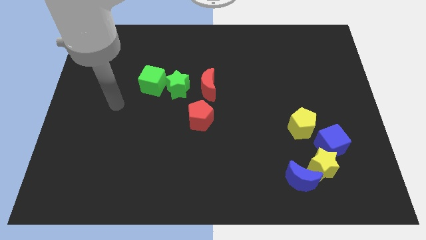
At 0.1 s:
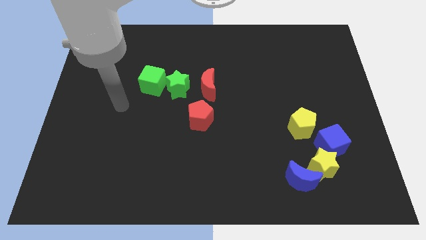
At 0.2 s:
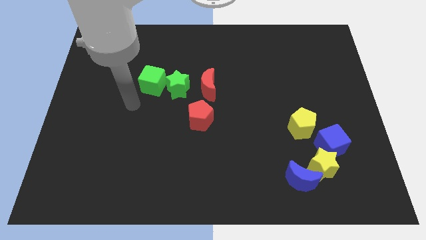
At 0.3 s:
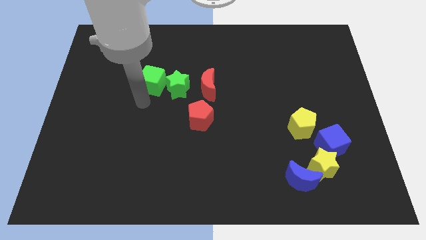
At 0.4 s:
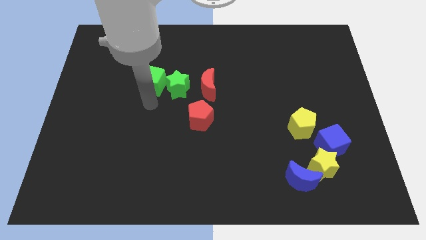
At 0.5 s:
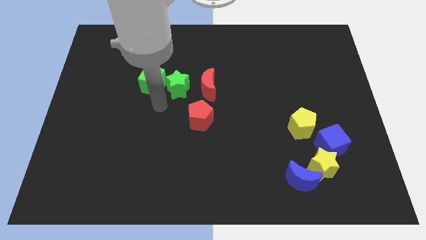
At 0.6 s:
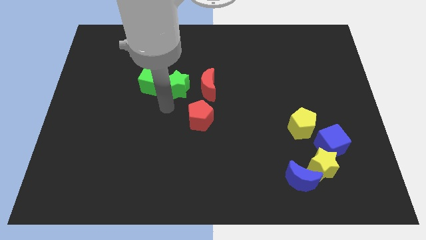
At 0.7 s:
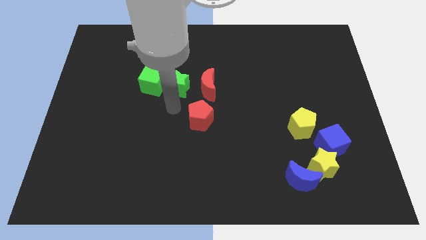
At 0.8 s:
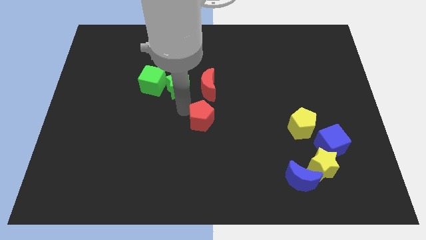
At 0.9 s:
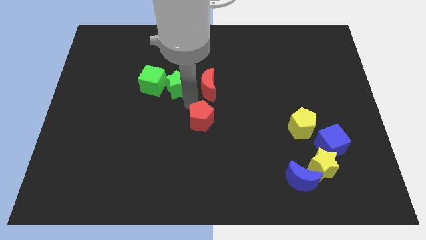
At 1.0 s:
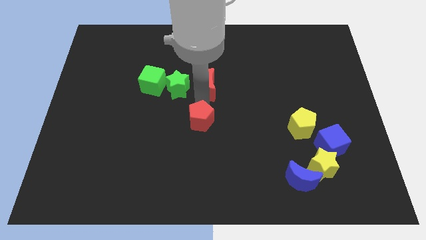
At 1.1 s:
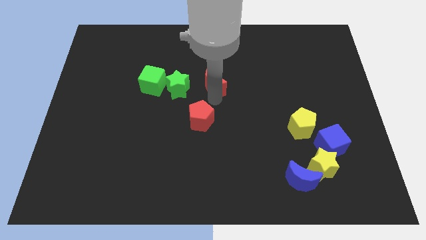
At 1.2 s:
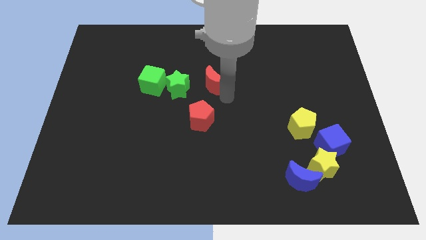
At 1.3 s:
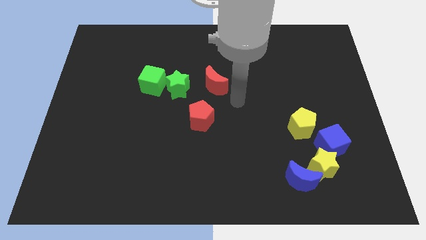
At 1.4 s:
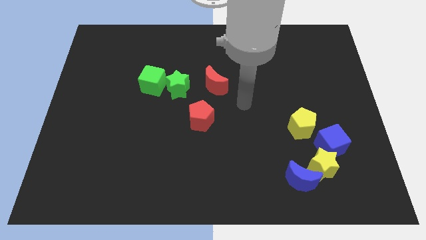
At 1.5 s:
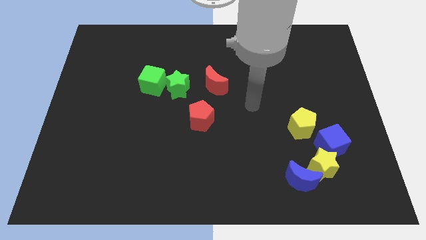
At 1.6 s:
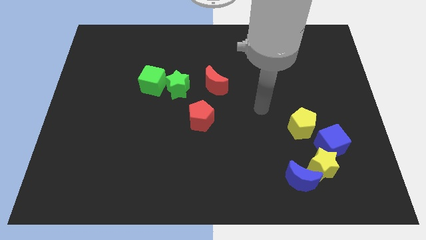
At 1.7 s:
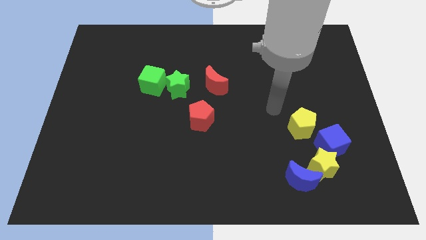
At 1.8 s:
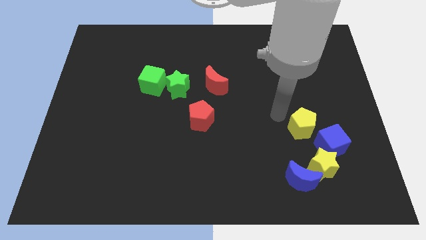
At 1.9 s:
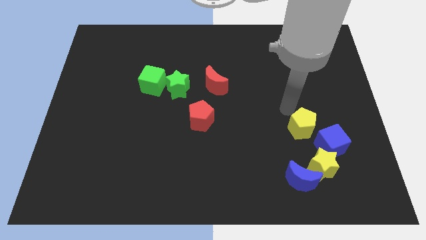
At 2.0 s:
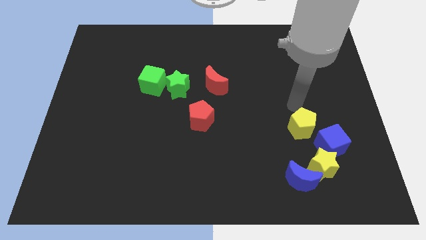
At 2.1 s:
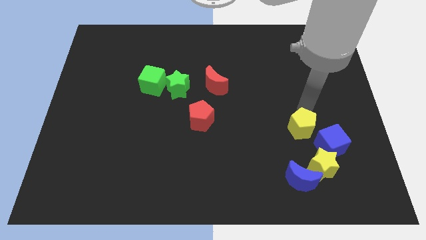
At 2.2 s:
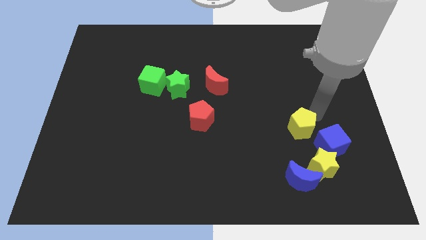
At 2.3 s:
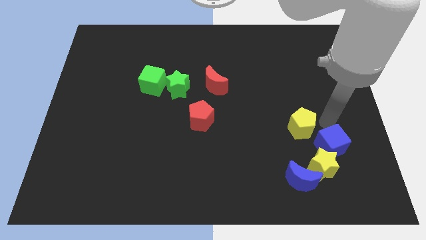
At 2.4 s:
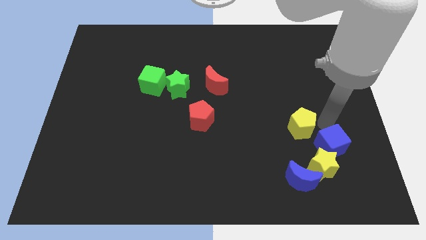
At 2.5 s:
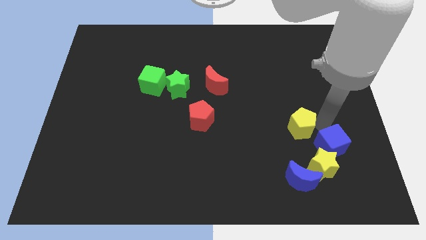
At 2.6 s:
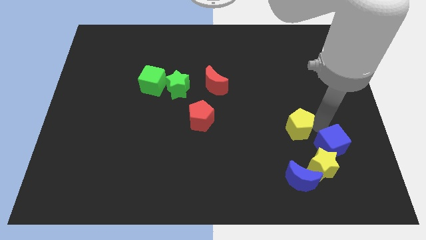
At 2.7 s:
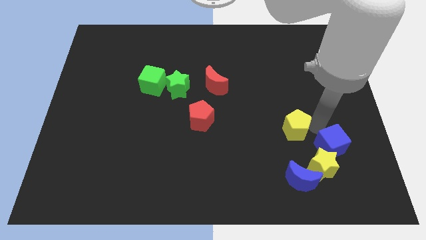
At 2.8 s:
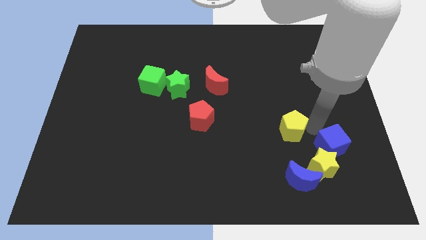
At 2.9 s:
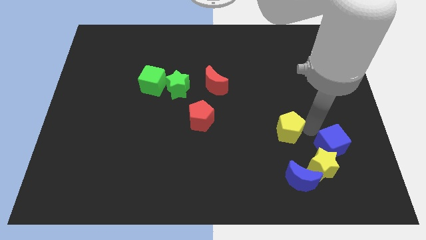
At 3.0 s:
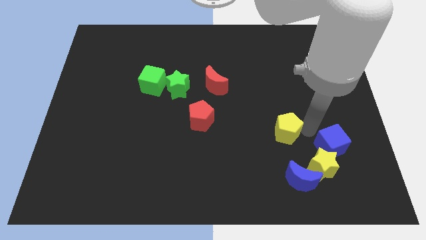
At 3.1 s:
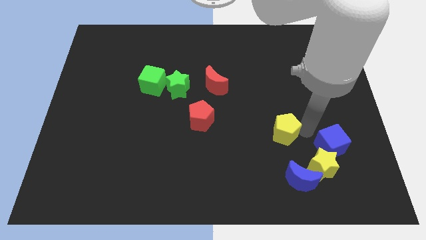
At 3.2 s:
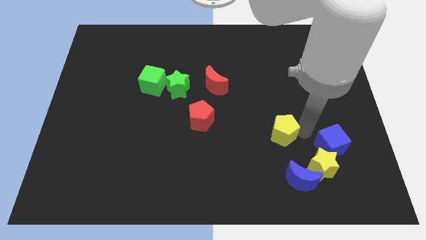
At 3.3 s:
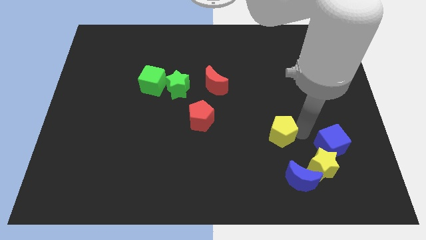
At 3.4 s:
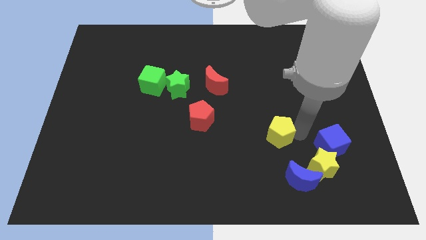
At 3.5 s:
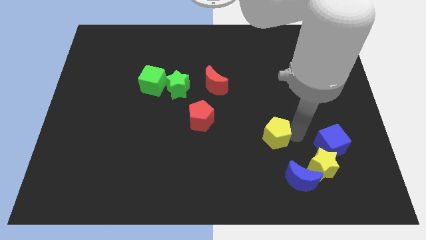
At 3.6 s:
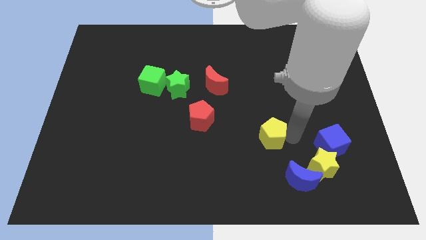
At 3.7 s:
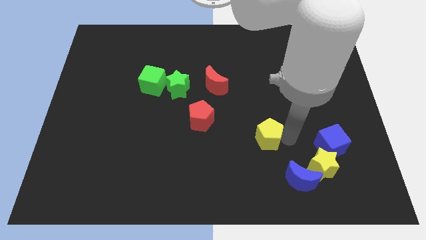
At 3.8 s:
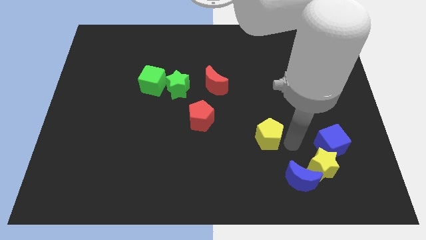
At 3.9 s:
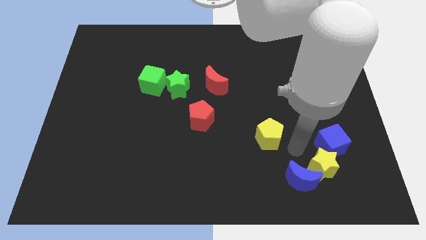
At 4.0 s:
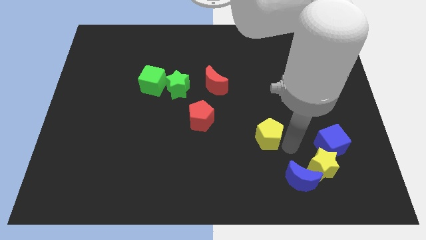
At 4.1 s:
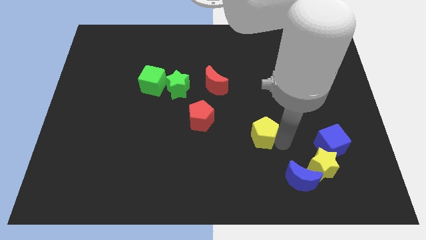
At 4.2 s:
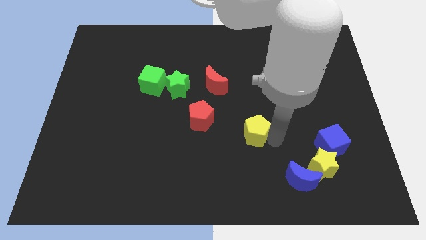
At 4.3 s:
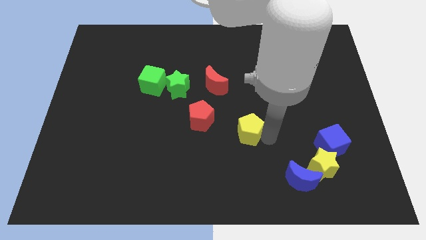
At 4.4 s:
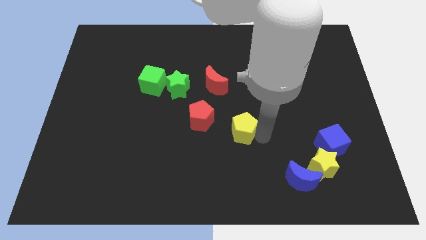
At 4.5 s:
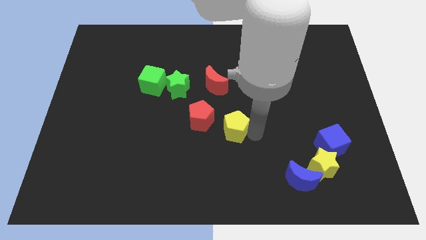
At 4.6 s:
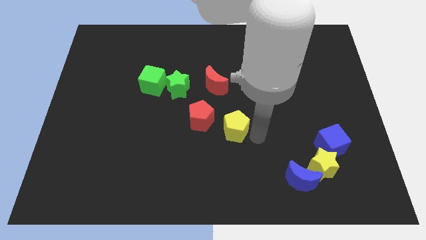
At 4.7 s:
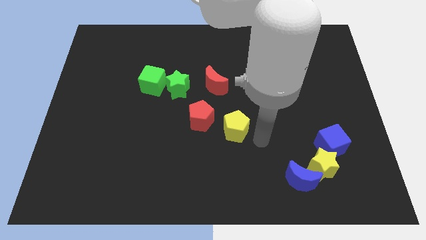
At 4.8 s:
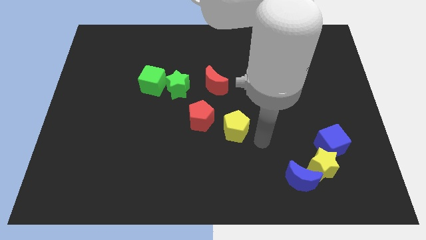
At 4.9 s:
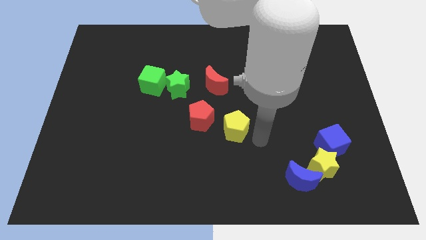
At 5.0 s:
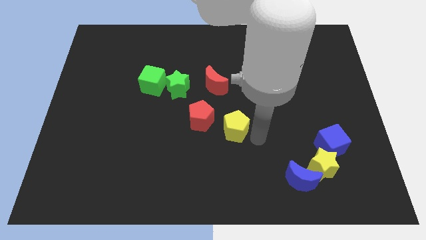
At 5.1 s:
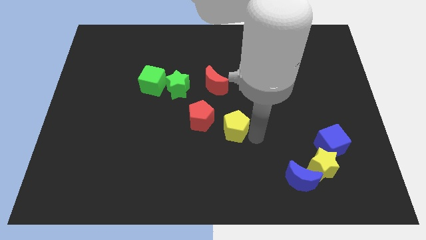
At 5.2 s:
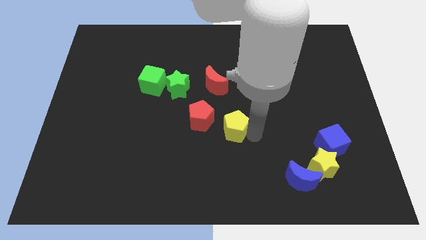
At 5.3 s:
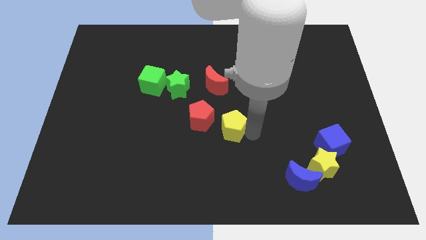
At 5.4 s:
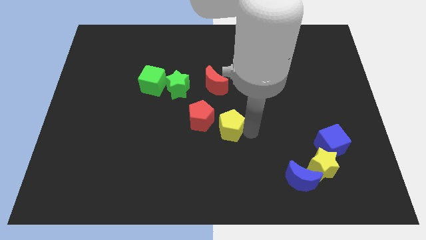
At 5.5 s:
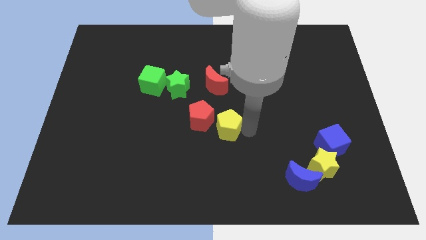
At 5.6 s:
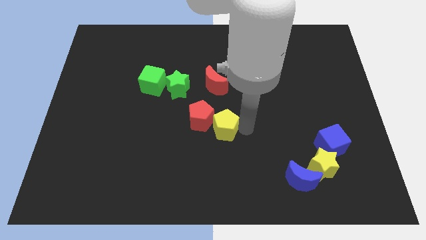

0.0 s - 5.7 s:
push the yellow pentagon next to the red pentagon
